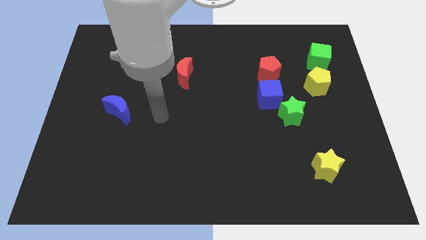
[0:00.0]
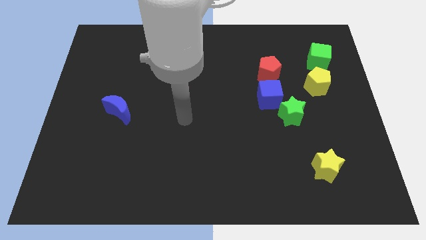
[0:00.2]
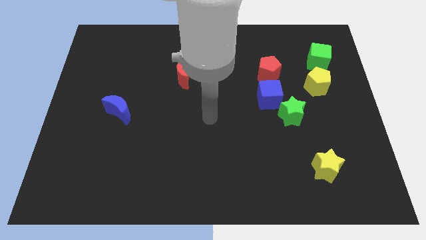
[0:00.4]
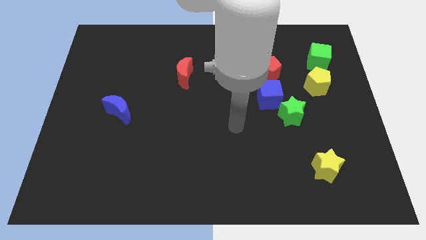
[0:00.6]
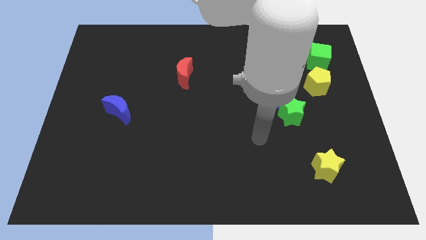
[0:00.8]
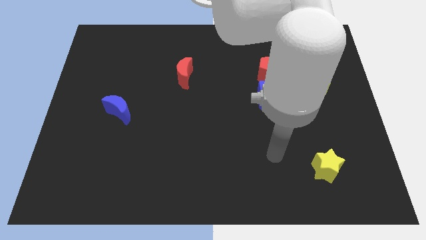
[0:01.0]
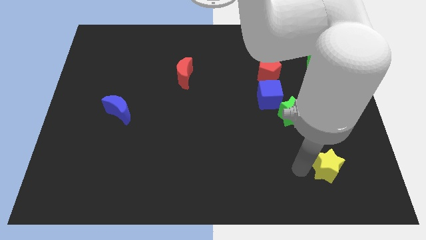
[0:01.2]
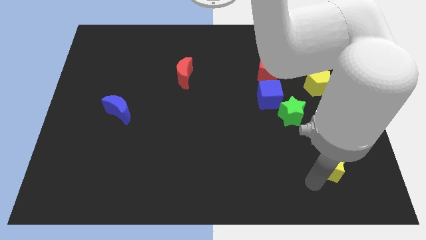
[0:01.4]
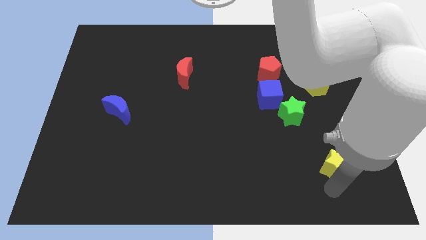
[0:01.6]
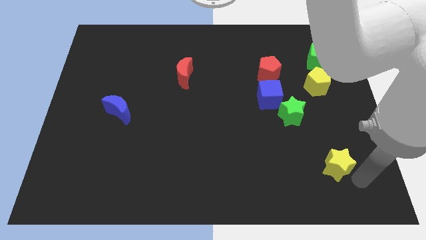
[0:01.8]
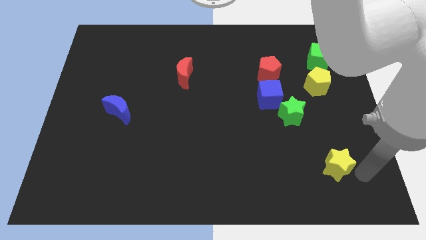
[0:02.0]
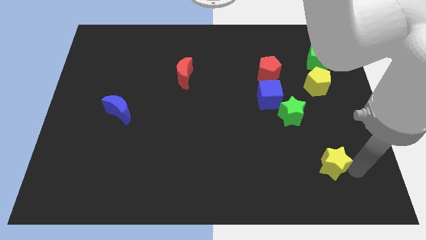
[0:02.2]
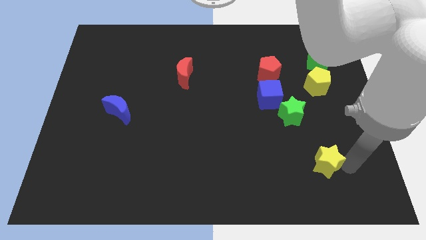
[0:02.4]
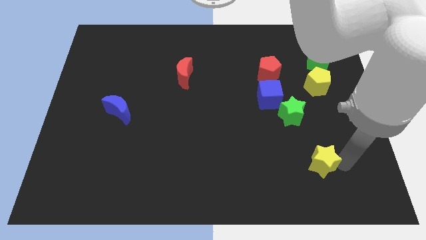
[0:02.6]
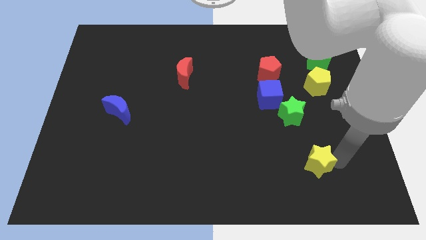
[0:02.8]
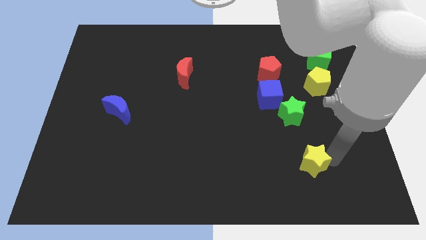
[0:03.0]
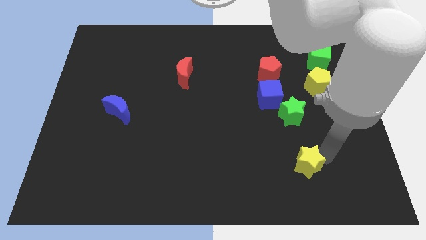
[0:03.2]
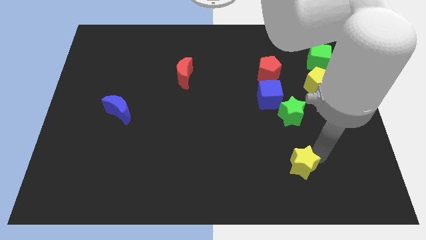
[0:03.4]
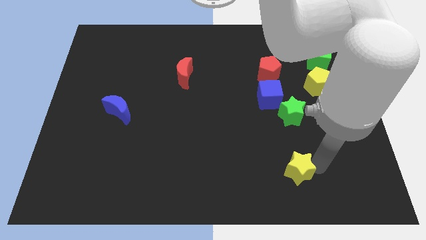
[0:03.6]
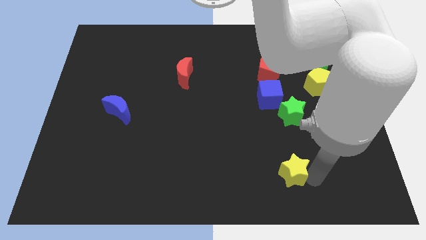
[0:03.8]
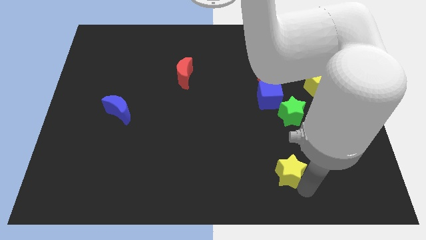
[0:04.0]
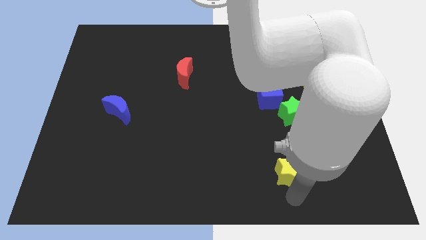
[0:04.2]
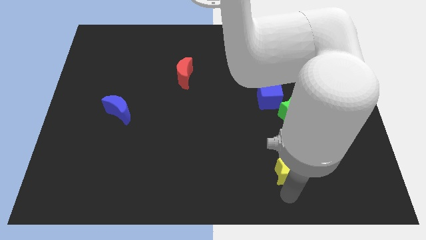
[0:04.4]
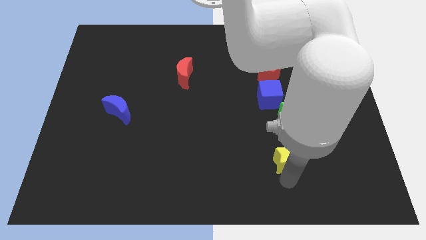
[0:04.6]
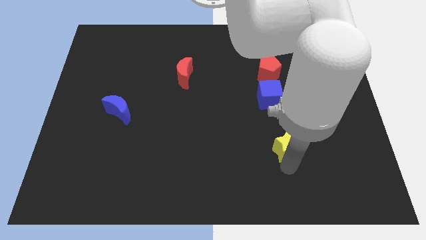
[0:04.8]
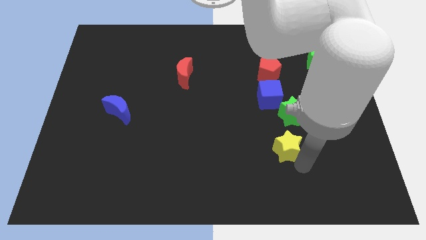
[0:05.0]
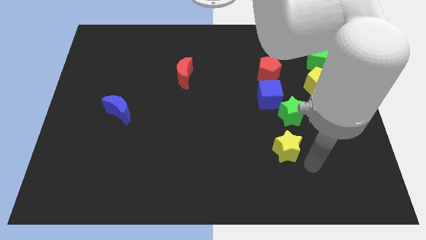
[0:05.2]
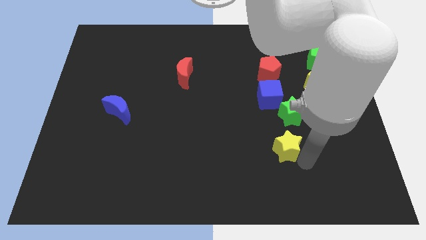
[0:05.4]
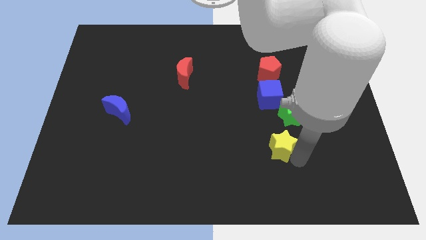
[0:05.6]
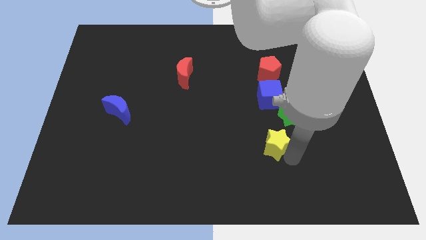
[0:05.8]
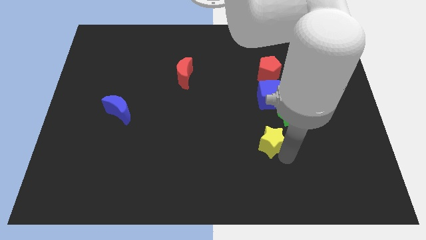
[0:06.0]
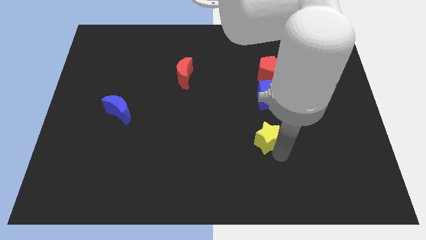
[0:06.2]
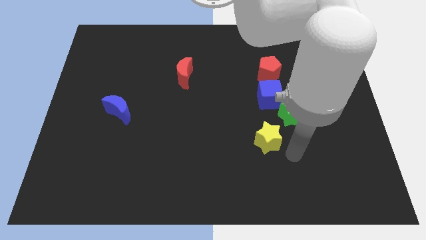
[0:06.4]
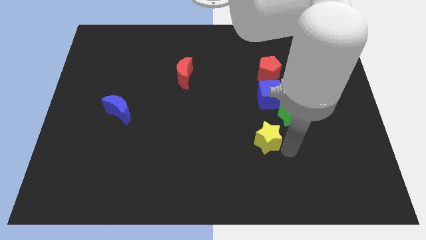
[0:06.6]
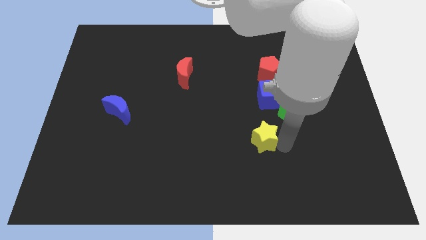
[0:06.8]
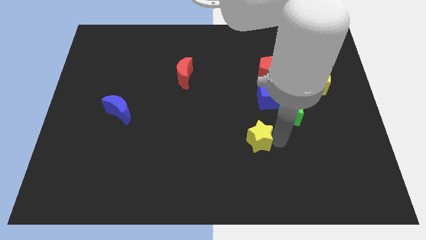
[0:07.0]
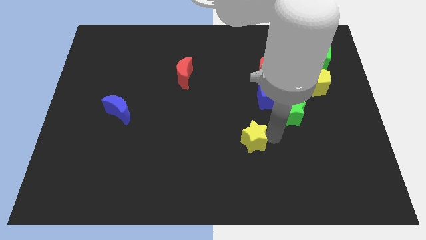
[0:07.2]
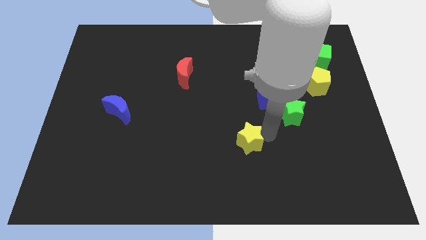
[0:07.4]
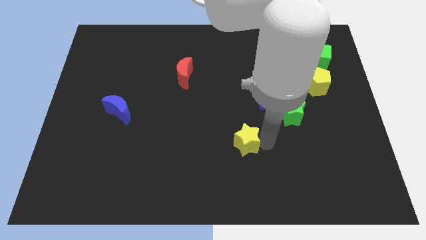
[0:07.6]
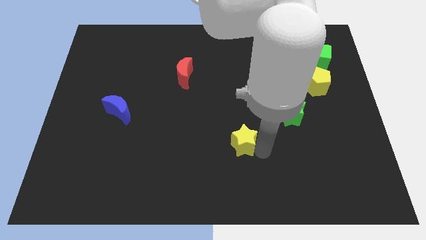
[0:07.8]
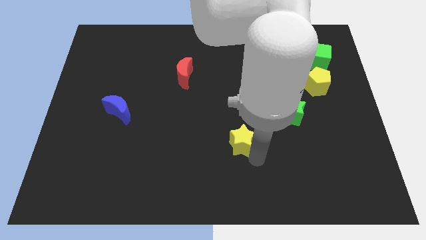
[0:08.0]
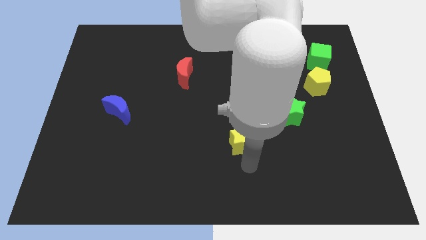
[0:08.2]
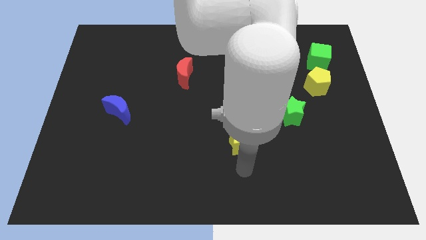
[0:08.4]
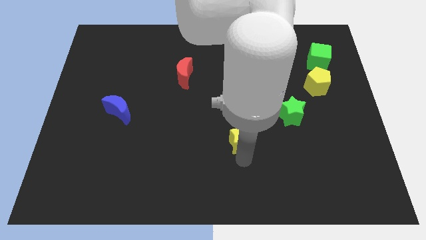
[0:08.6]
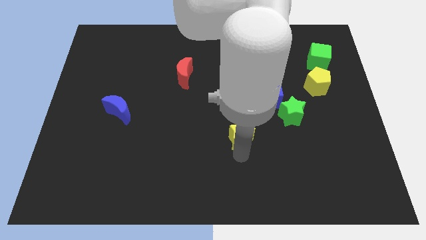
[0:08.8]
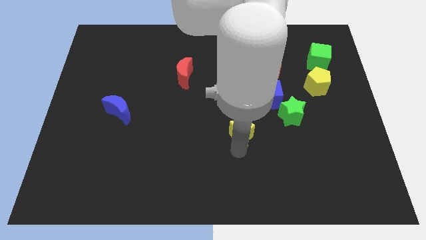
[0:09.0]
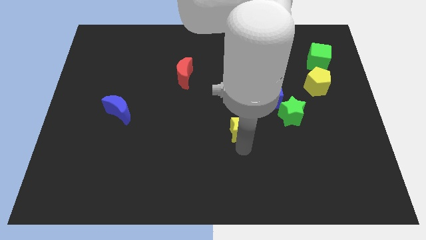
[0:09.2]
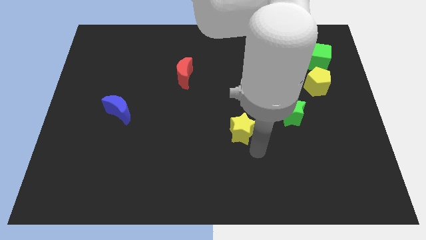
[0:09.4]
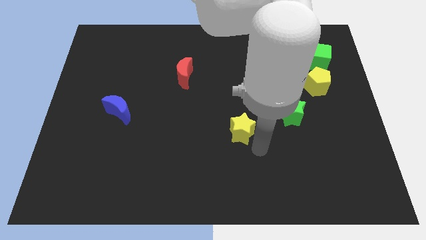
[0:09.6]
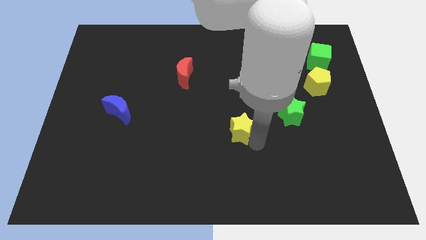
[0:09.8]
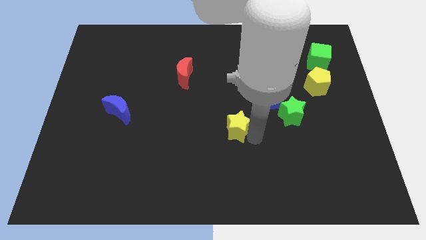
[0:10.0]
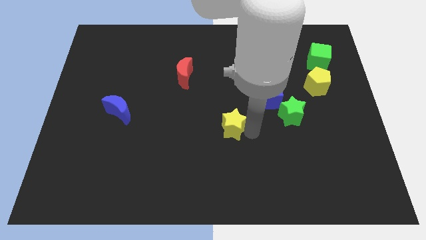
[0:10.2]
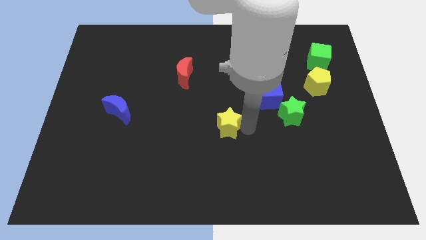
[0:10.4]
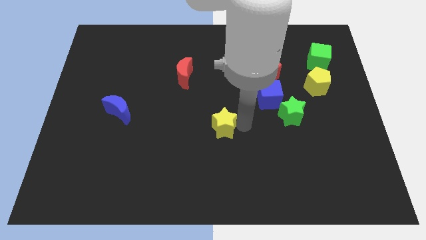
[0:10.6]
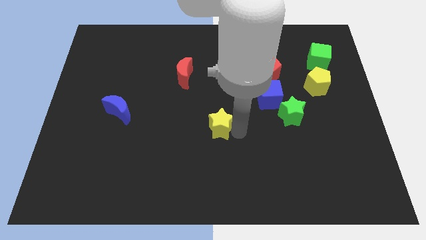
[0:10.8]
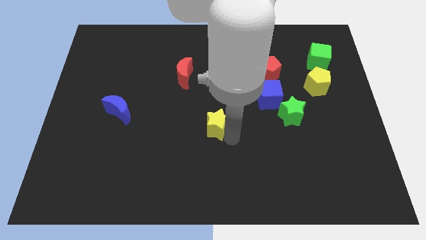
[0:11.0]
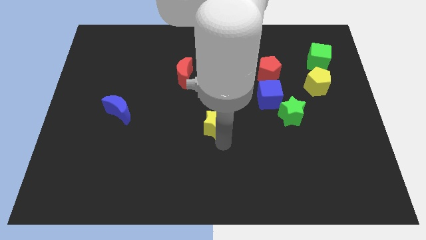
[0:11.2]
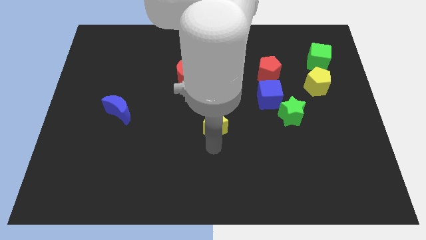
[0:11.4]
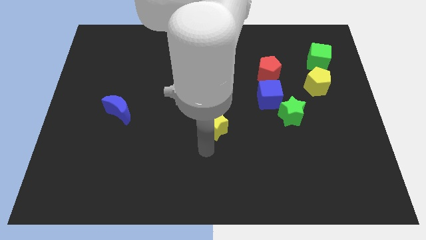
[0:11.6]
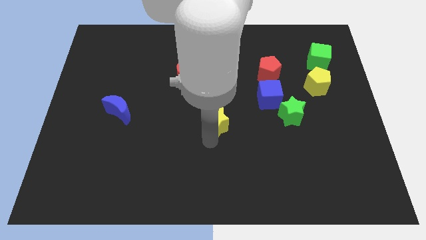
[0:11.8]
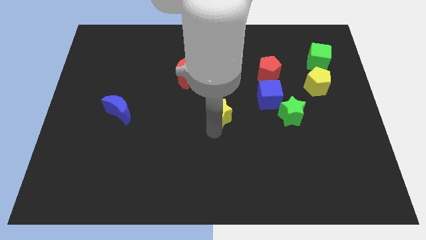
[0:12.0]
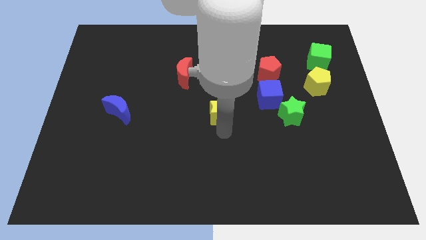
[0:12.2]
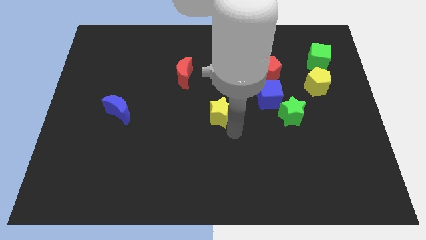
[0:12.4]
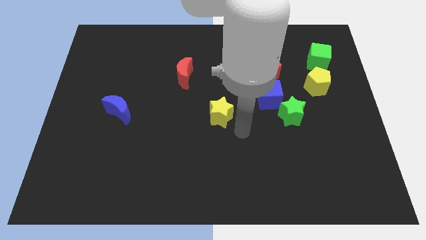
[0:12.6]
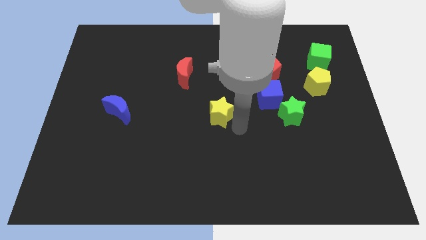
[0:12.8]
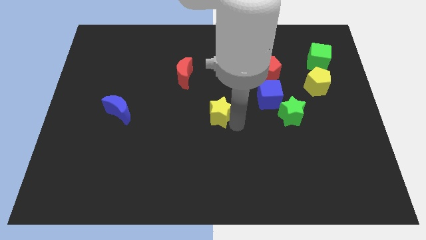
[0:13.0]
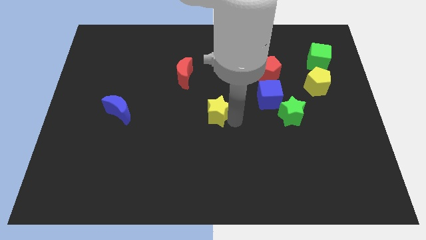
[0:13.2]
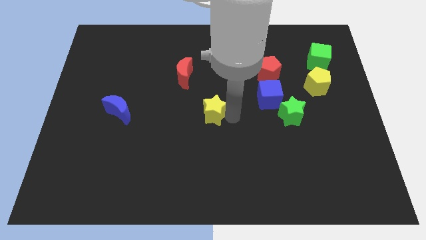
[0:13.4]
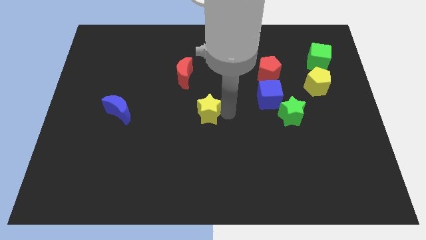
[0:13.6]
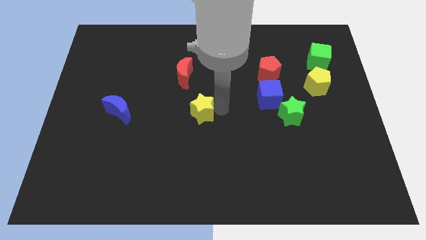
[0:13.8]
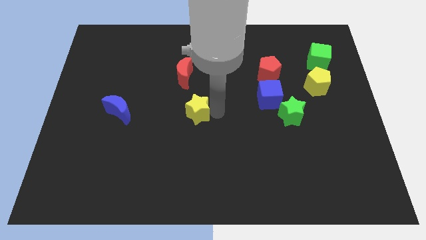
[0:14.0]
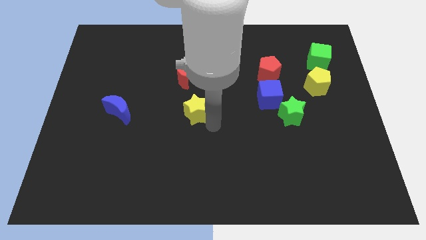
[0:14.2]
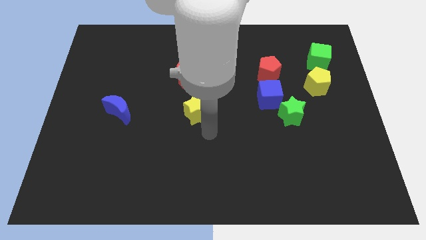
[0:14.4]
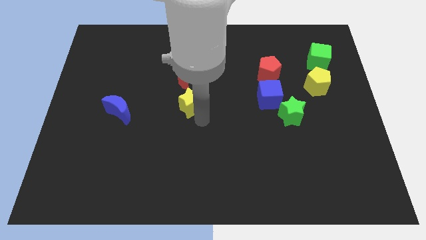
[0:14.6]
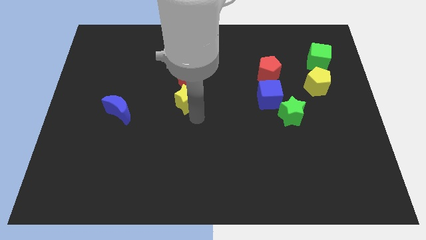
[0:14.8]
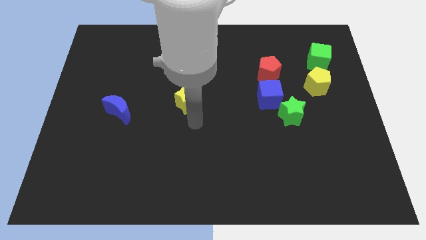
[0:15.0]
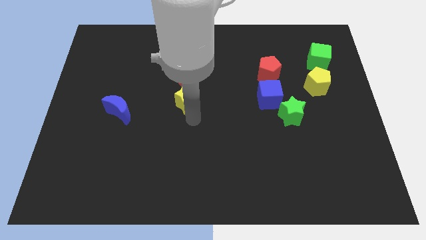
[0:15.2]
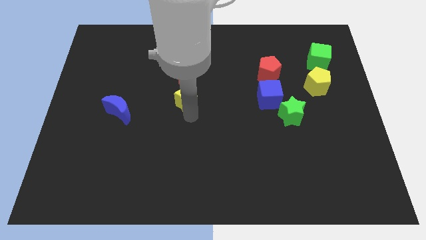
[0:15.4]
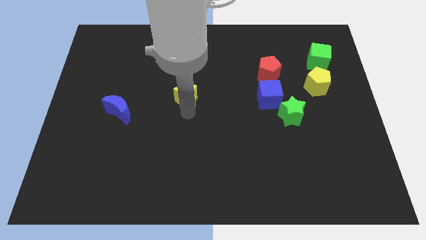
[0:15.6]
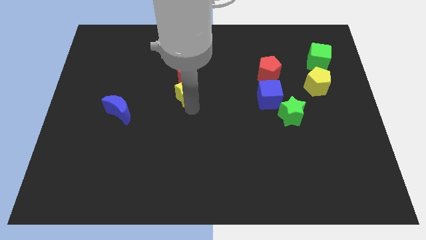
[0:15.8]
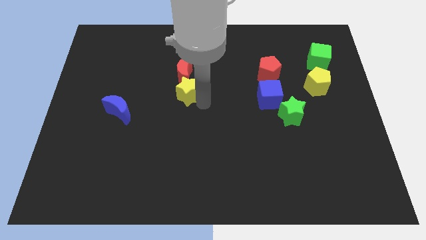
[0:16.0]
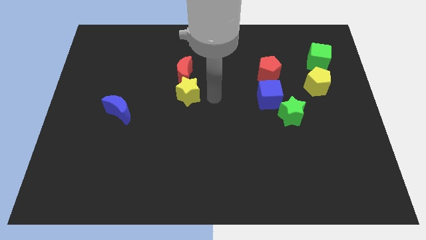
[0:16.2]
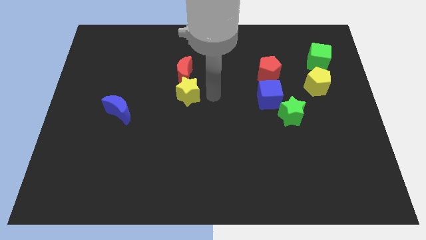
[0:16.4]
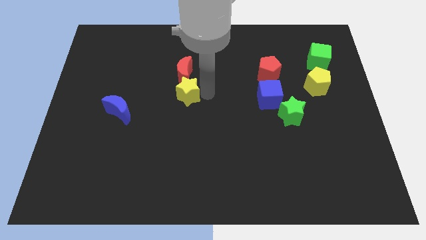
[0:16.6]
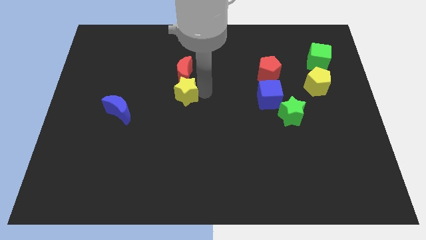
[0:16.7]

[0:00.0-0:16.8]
push the yellow star diagonally down and to the left of the red moon

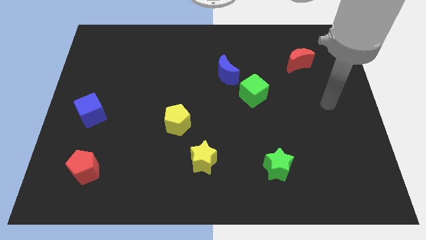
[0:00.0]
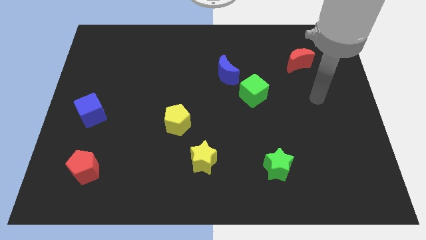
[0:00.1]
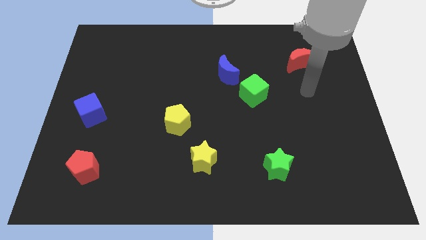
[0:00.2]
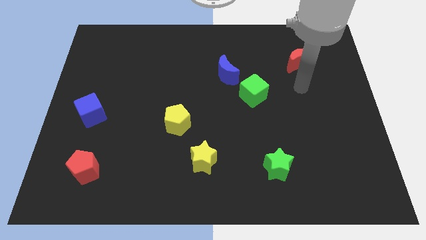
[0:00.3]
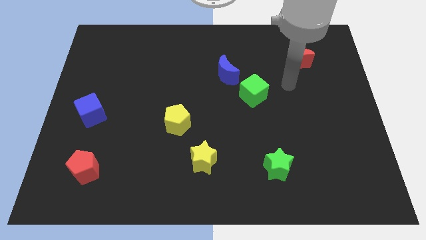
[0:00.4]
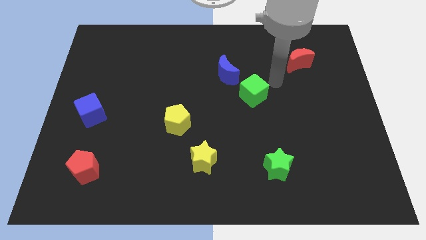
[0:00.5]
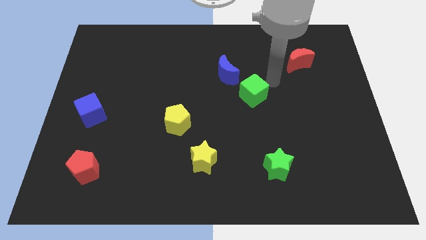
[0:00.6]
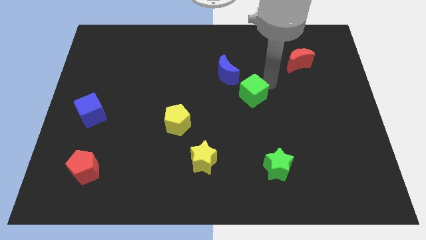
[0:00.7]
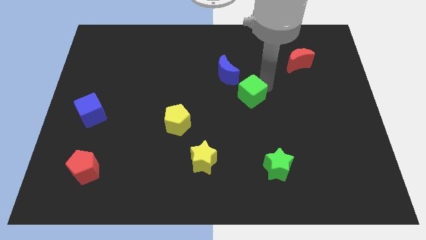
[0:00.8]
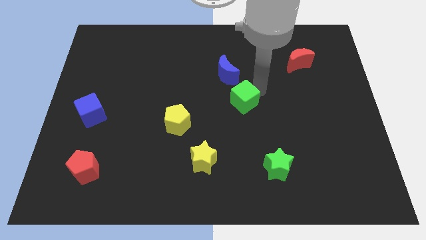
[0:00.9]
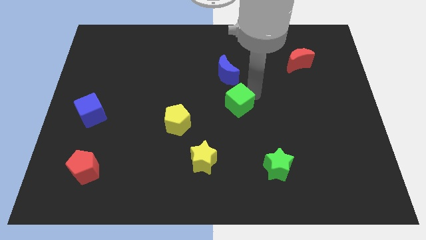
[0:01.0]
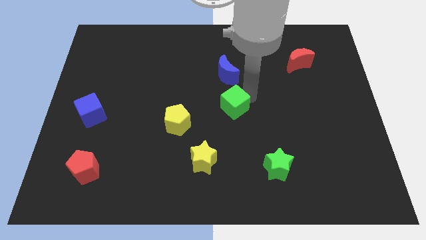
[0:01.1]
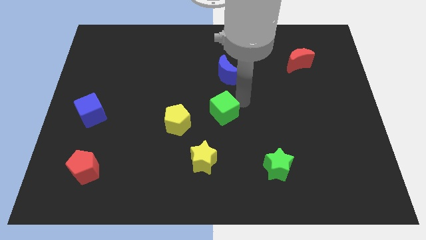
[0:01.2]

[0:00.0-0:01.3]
push the green cube above the yellow star
